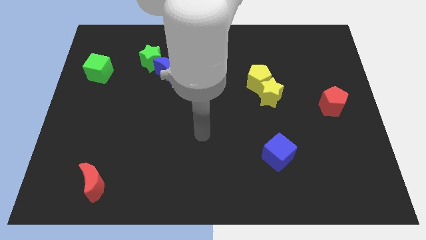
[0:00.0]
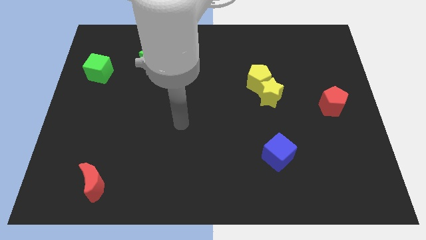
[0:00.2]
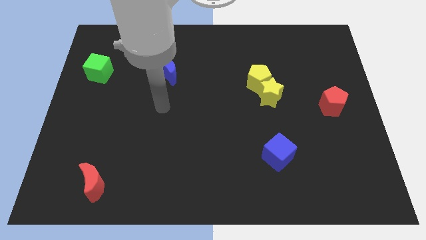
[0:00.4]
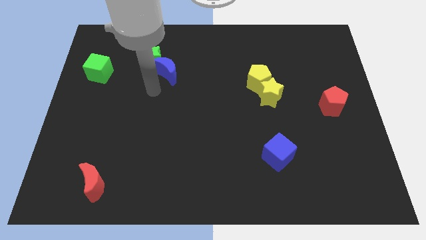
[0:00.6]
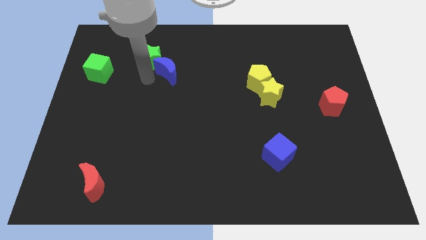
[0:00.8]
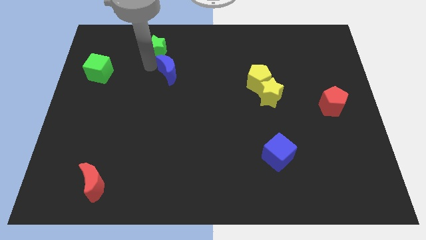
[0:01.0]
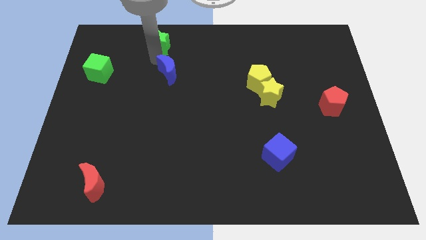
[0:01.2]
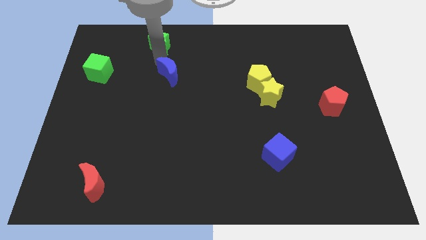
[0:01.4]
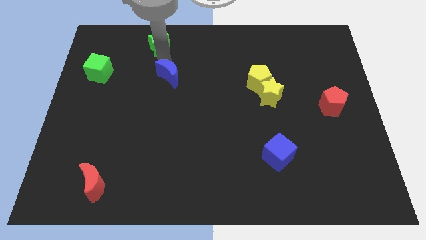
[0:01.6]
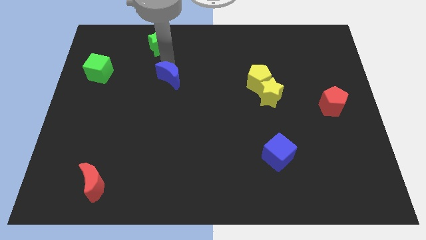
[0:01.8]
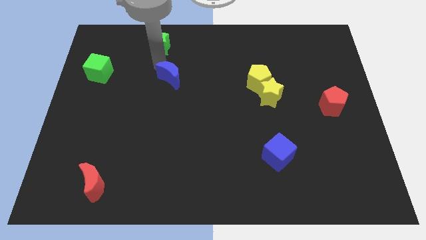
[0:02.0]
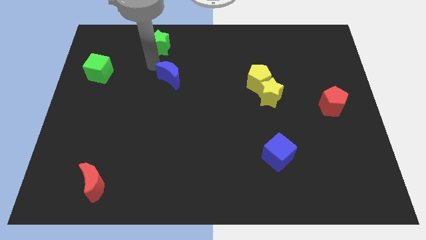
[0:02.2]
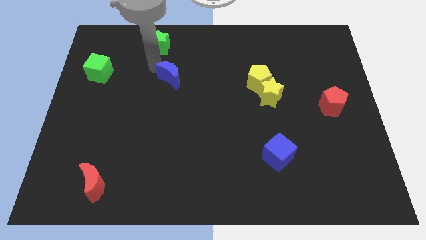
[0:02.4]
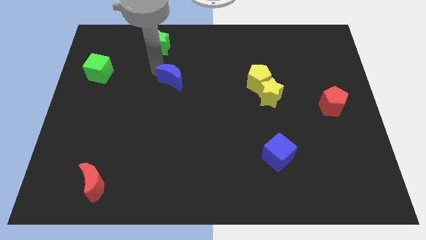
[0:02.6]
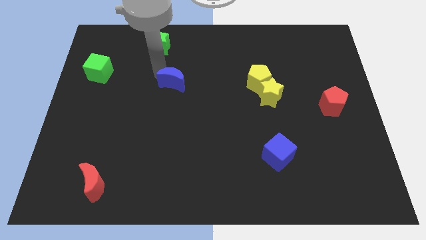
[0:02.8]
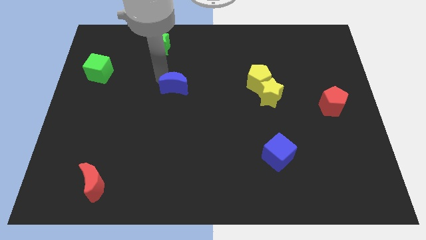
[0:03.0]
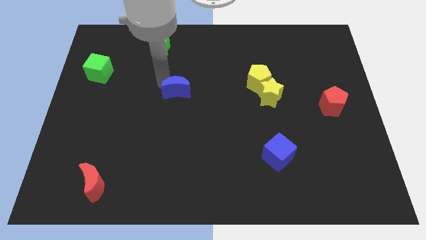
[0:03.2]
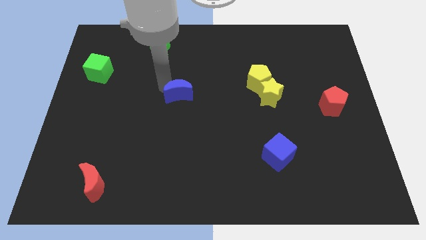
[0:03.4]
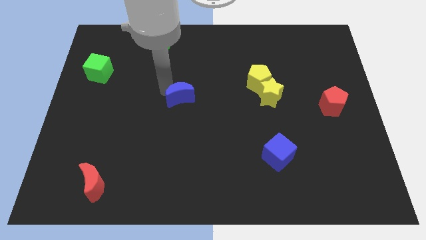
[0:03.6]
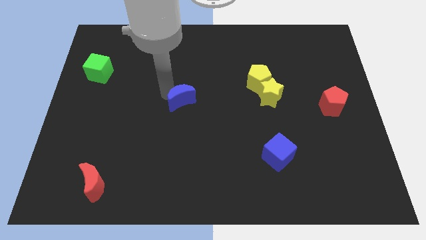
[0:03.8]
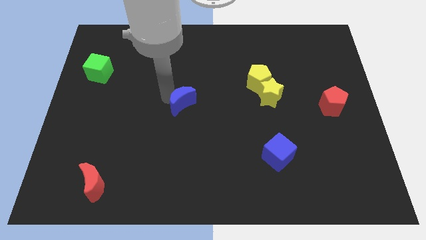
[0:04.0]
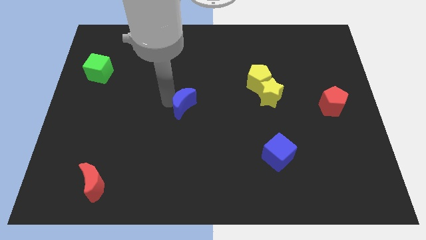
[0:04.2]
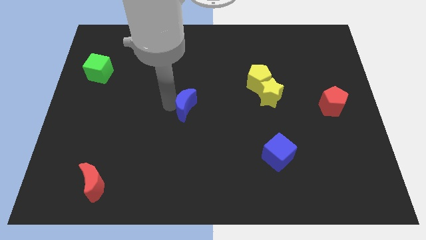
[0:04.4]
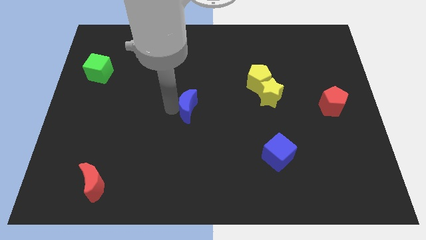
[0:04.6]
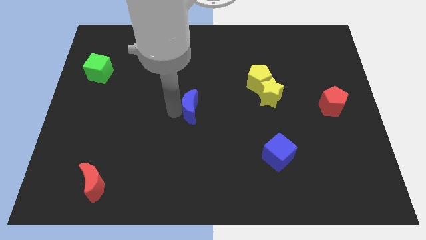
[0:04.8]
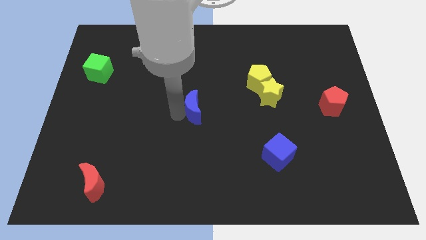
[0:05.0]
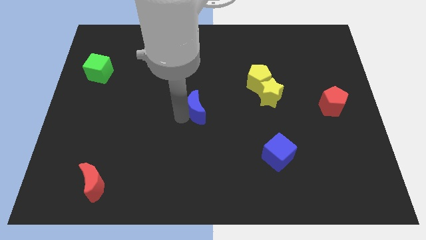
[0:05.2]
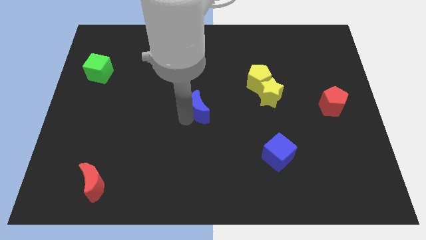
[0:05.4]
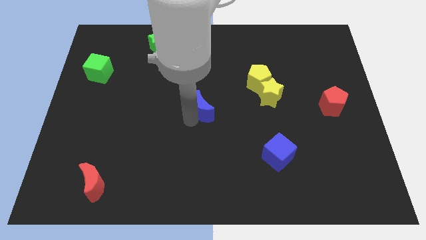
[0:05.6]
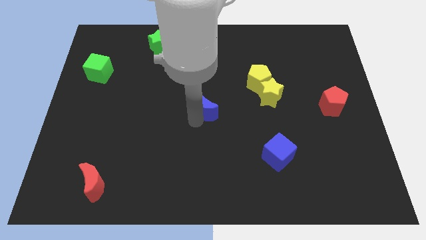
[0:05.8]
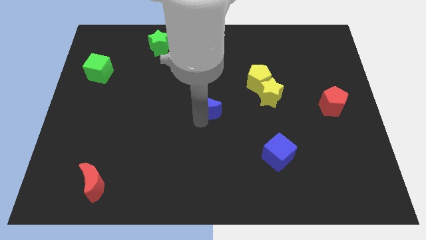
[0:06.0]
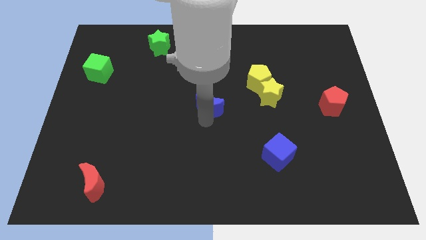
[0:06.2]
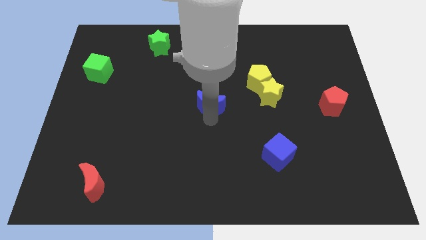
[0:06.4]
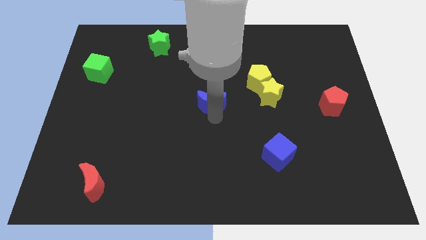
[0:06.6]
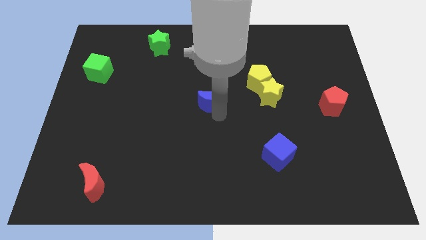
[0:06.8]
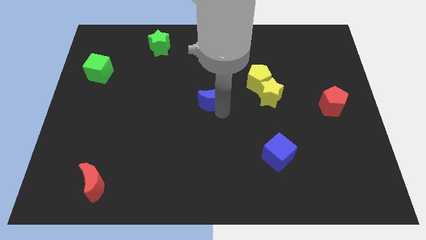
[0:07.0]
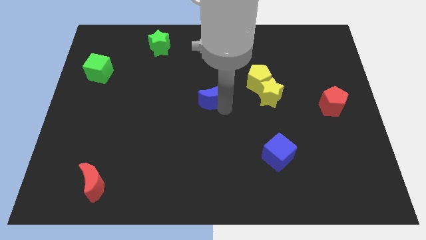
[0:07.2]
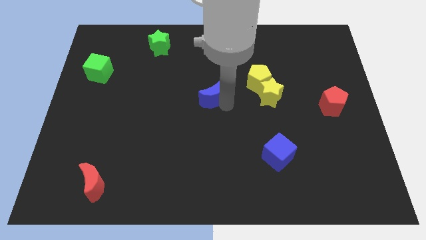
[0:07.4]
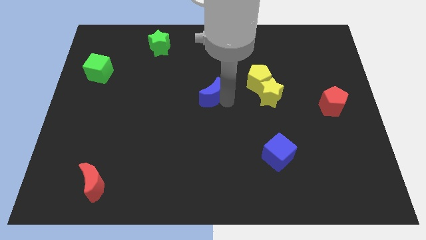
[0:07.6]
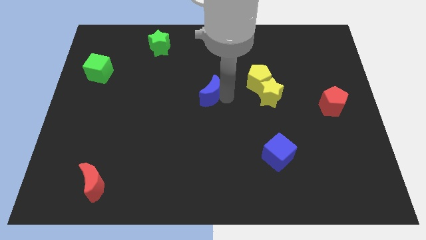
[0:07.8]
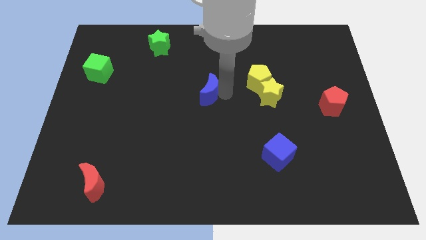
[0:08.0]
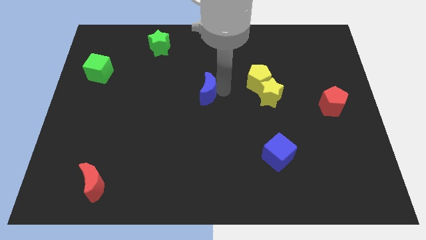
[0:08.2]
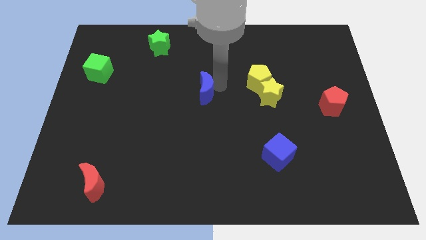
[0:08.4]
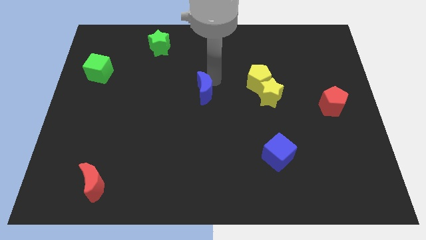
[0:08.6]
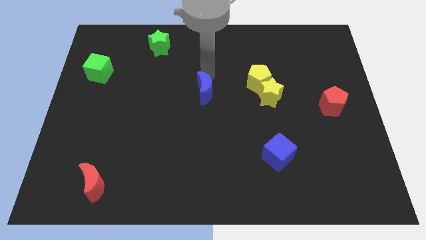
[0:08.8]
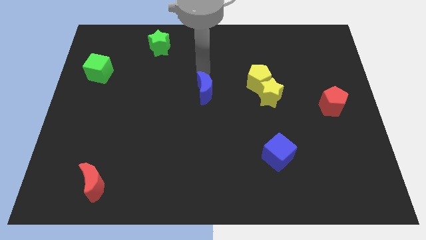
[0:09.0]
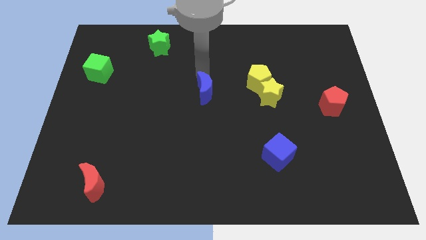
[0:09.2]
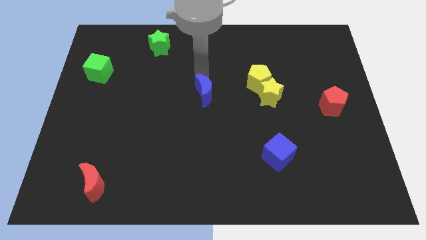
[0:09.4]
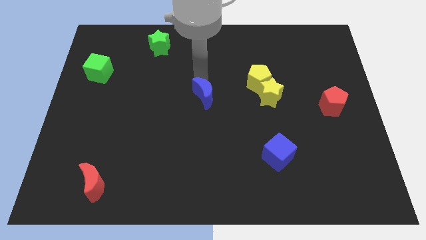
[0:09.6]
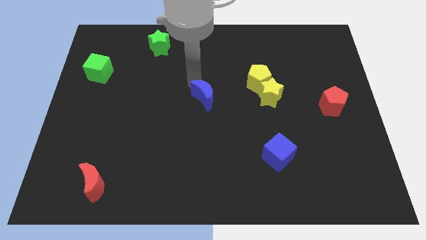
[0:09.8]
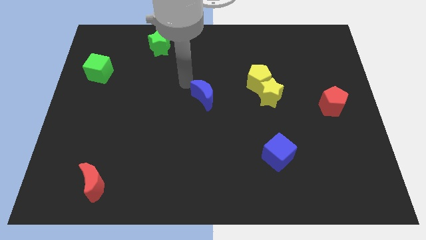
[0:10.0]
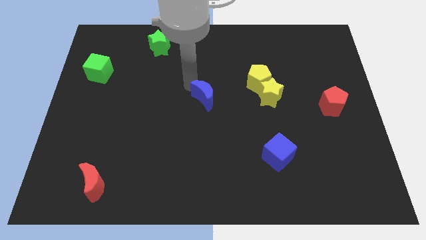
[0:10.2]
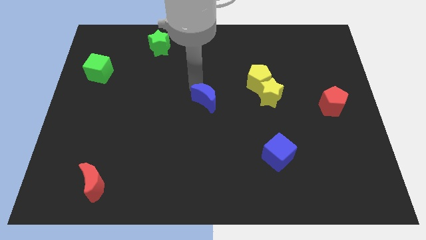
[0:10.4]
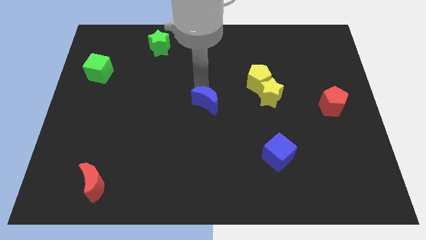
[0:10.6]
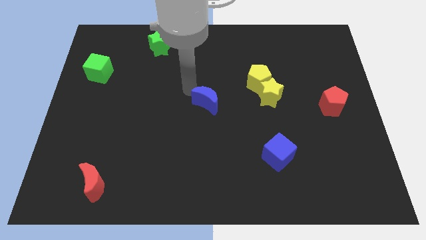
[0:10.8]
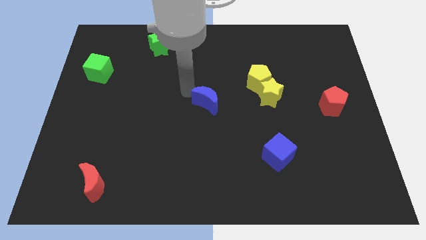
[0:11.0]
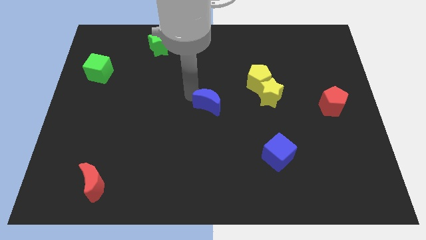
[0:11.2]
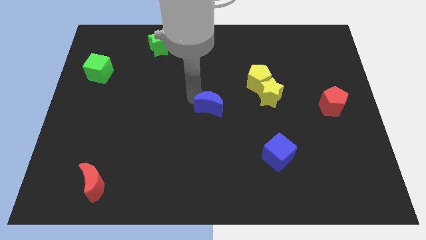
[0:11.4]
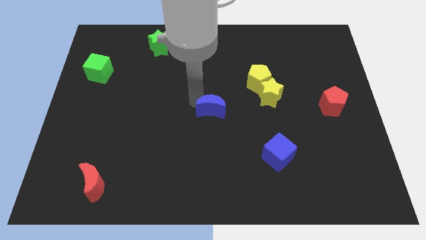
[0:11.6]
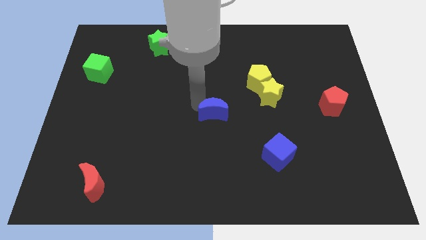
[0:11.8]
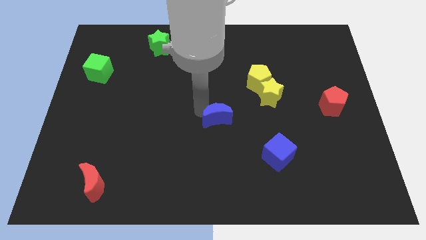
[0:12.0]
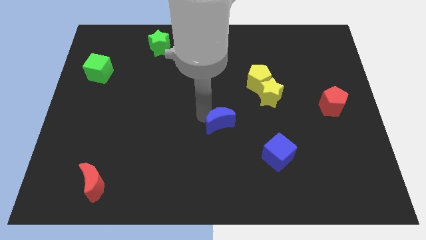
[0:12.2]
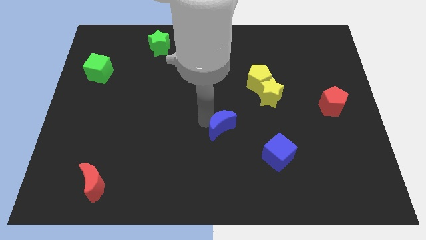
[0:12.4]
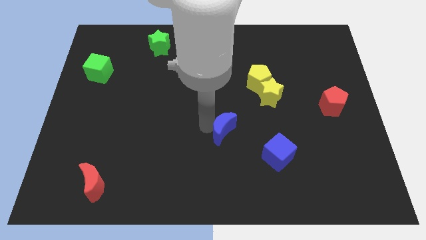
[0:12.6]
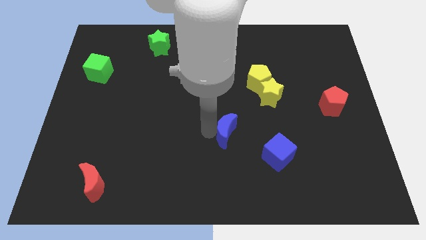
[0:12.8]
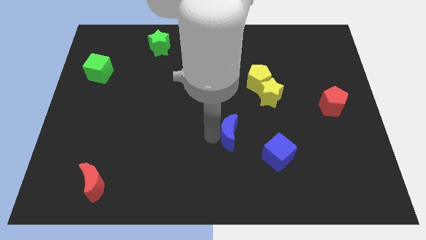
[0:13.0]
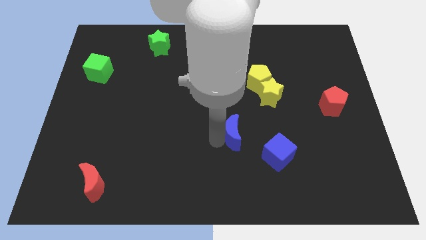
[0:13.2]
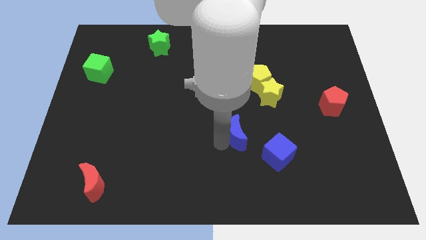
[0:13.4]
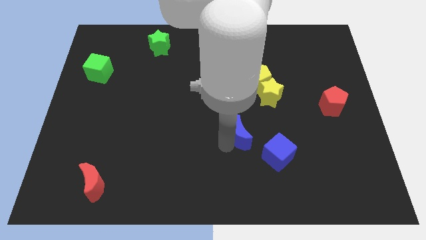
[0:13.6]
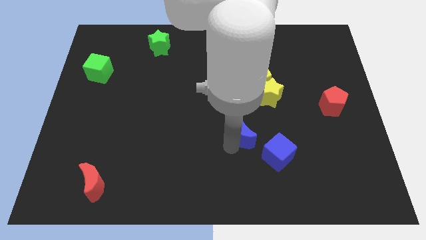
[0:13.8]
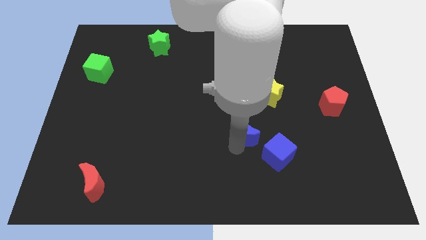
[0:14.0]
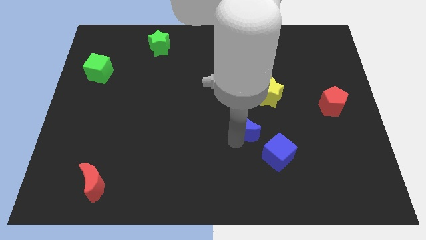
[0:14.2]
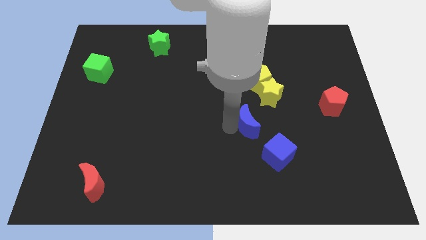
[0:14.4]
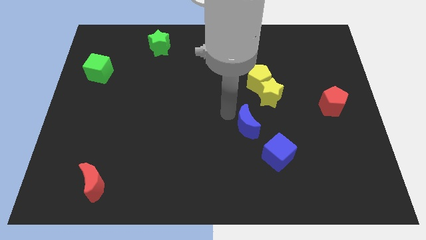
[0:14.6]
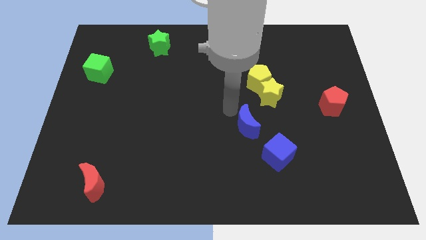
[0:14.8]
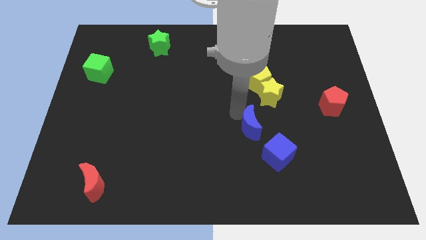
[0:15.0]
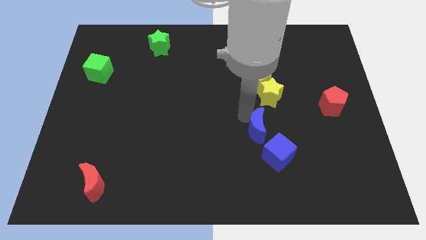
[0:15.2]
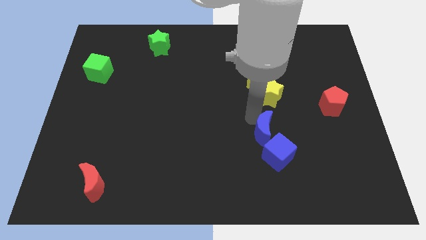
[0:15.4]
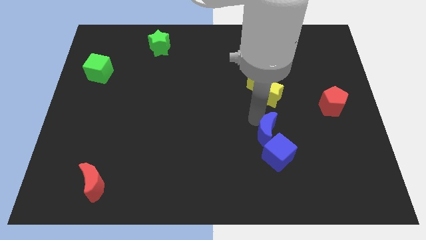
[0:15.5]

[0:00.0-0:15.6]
put the blue moon next to the blue cube
